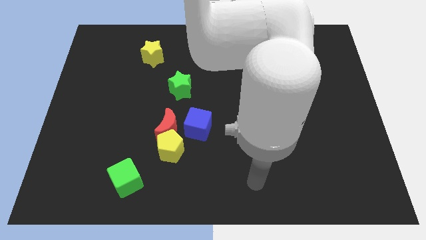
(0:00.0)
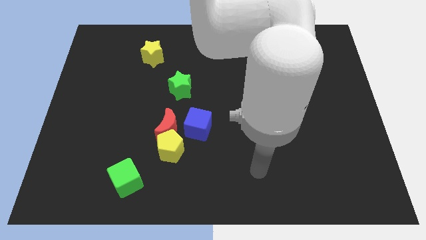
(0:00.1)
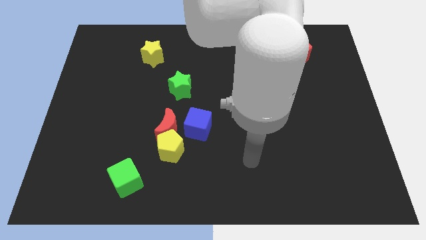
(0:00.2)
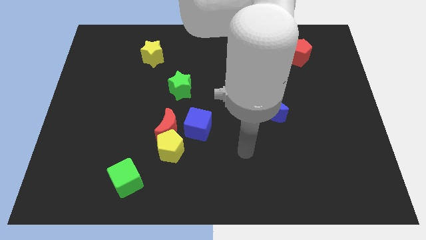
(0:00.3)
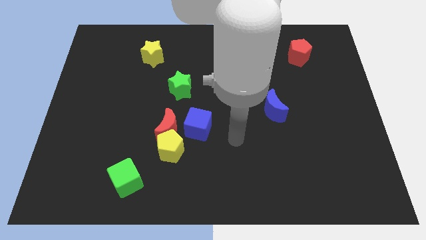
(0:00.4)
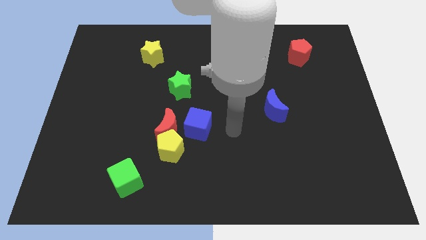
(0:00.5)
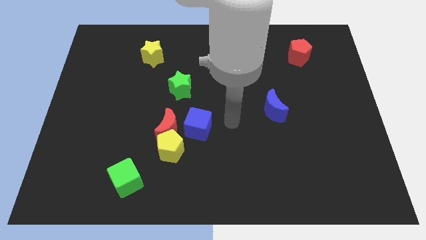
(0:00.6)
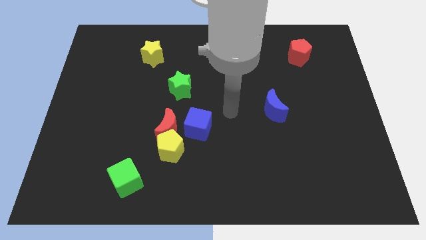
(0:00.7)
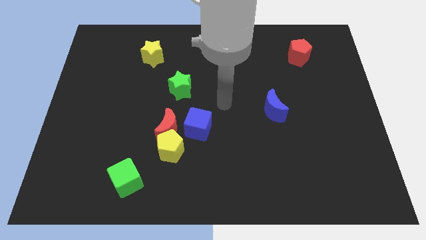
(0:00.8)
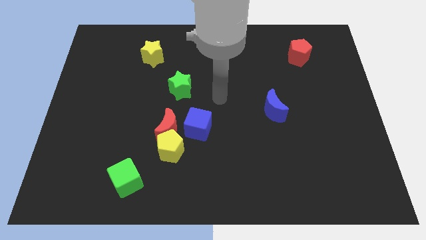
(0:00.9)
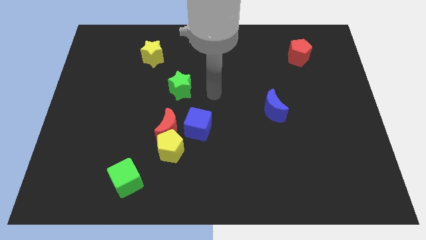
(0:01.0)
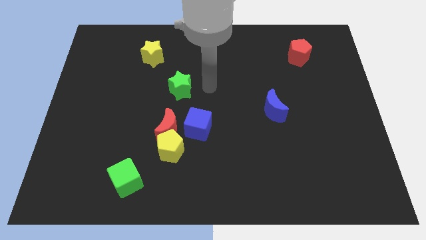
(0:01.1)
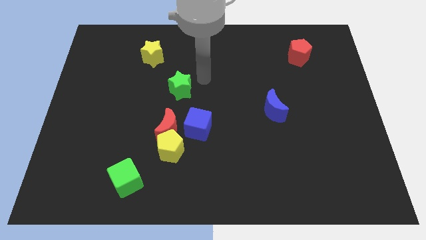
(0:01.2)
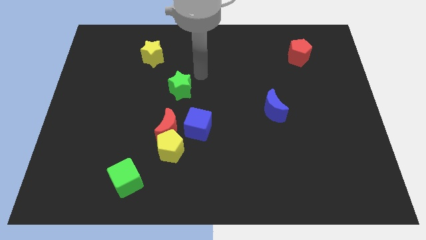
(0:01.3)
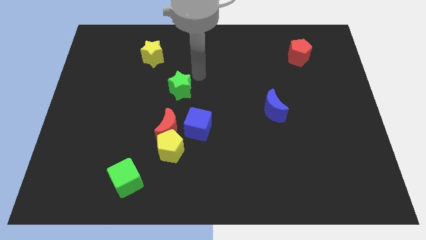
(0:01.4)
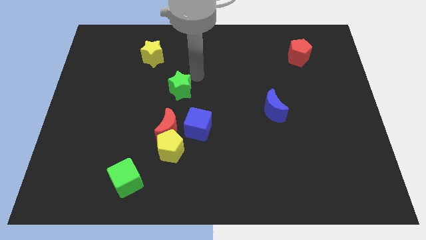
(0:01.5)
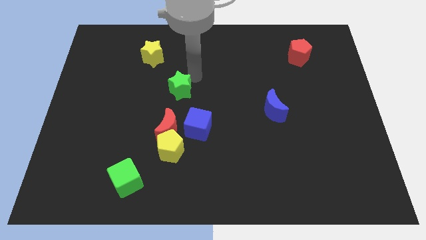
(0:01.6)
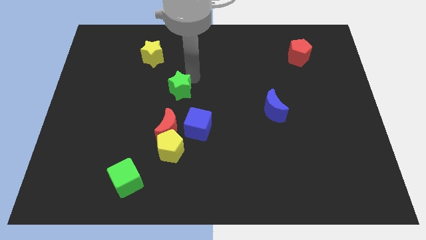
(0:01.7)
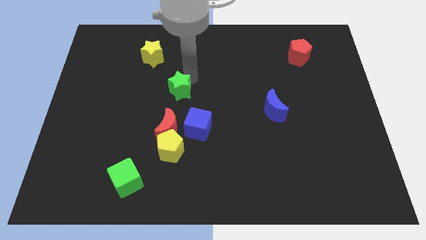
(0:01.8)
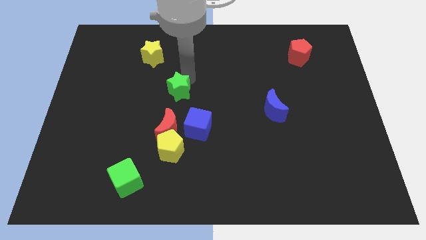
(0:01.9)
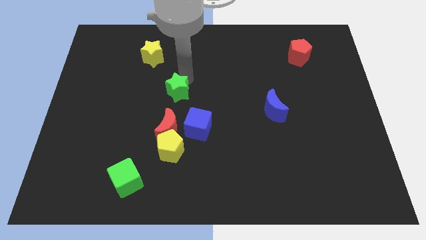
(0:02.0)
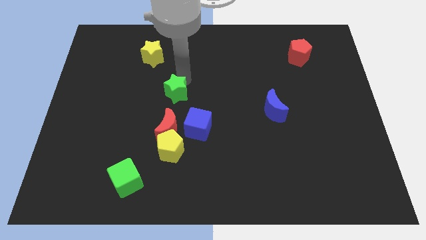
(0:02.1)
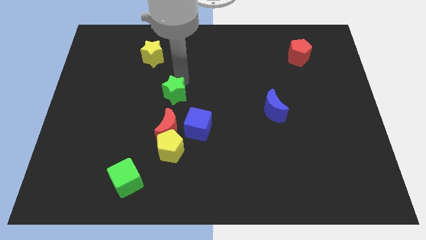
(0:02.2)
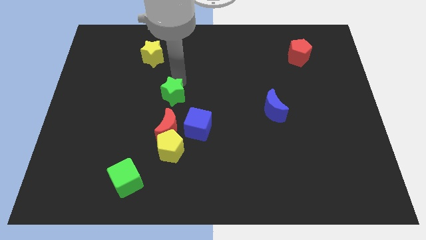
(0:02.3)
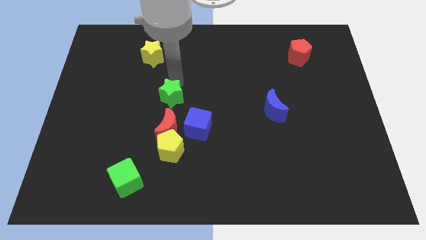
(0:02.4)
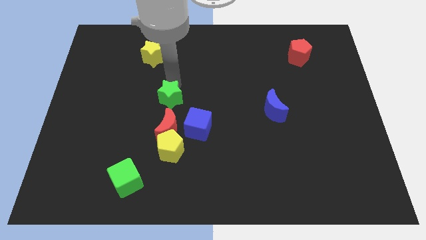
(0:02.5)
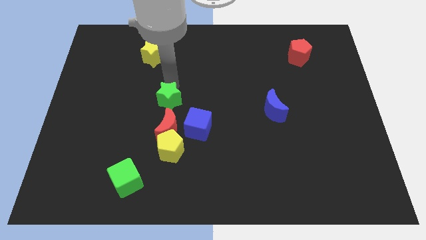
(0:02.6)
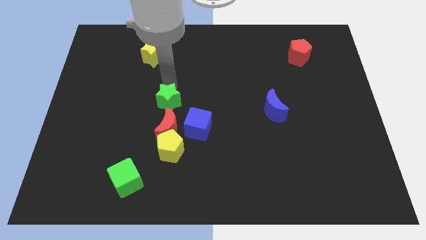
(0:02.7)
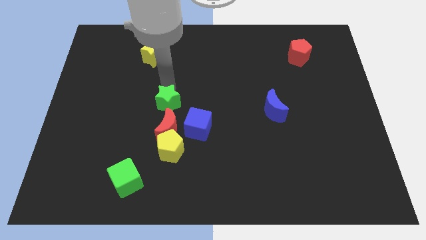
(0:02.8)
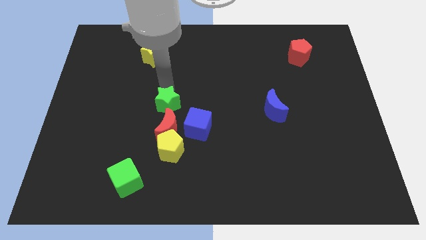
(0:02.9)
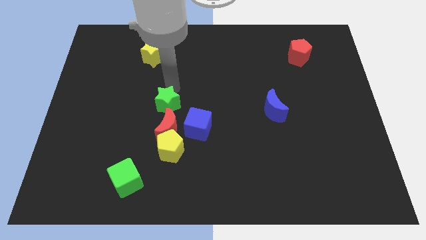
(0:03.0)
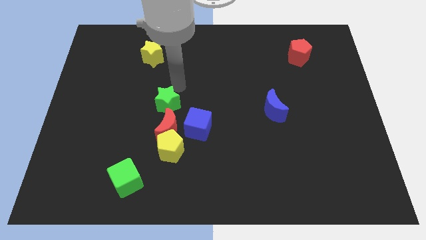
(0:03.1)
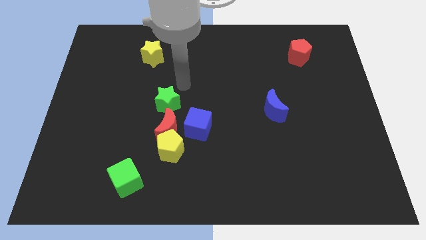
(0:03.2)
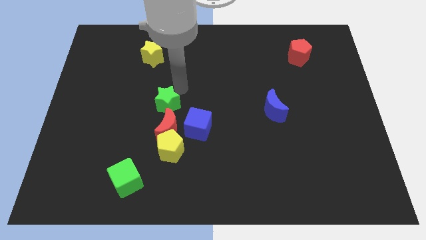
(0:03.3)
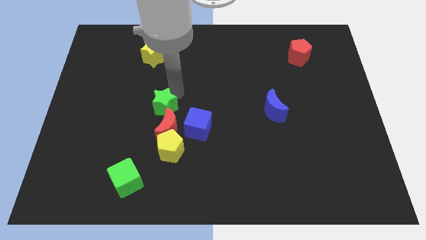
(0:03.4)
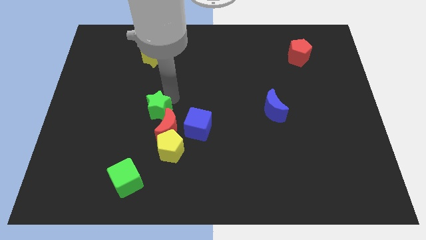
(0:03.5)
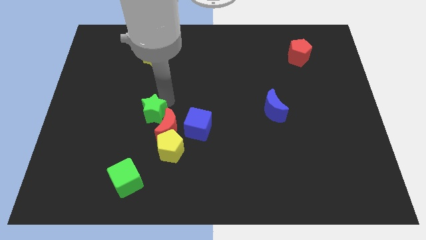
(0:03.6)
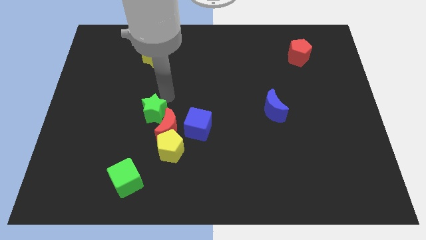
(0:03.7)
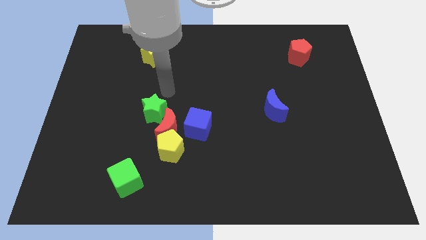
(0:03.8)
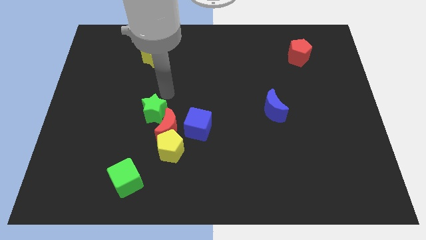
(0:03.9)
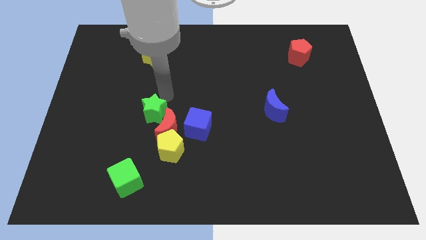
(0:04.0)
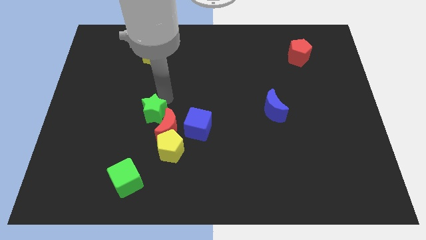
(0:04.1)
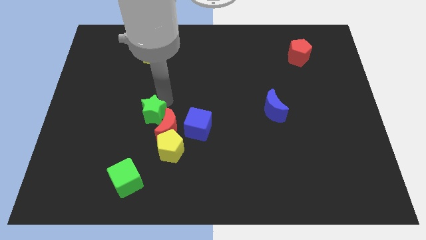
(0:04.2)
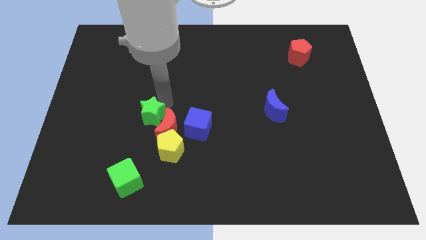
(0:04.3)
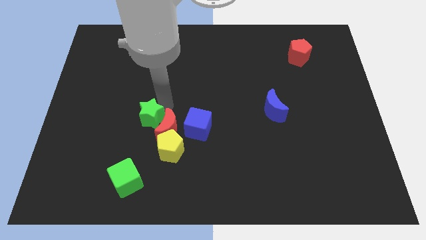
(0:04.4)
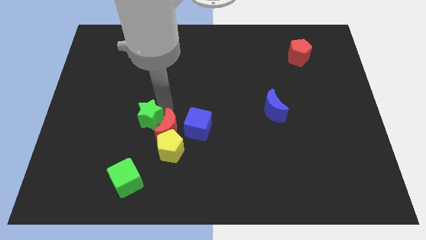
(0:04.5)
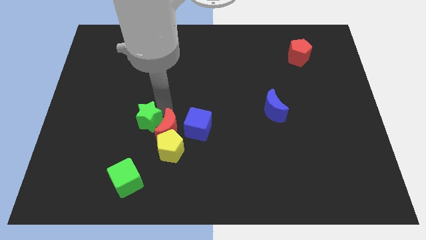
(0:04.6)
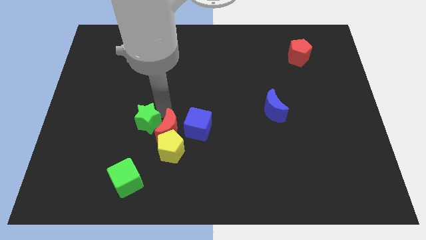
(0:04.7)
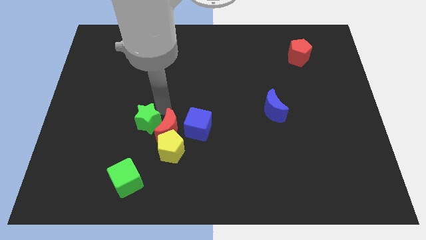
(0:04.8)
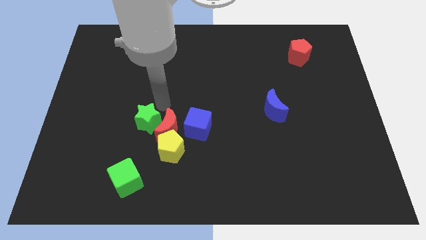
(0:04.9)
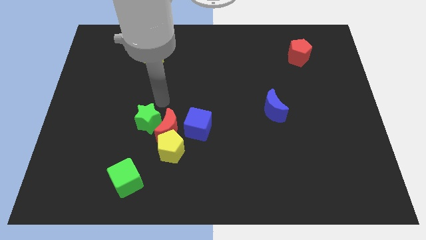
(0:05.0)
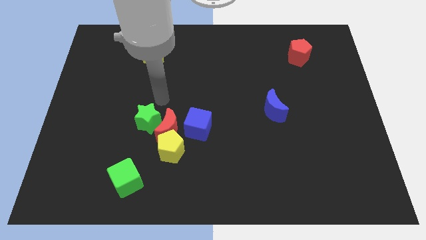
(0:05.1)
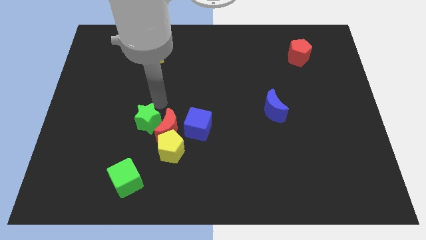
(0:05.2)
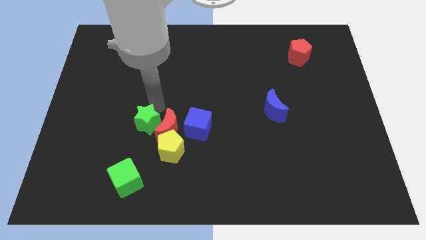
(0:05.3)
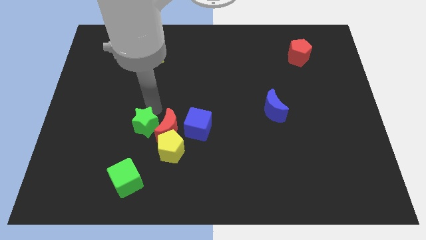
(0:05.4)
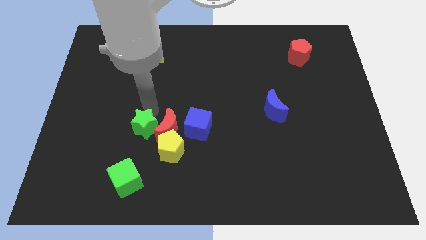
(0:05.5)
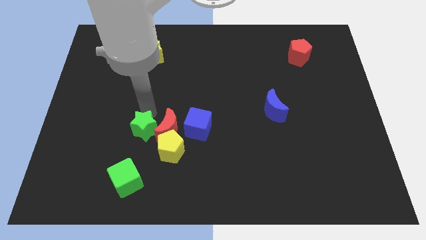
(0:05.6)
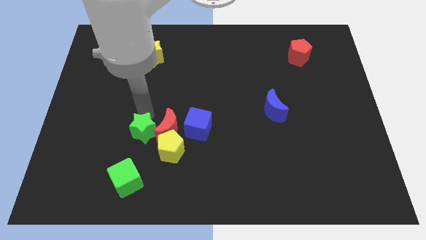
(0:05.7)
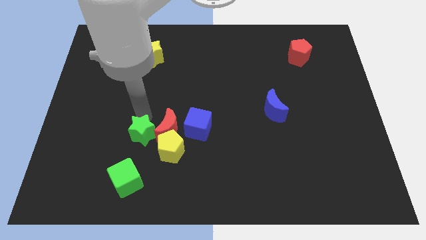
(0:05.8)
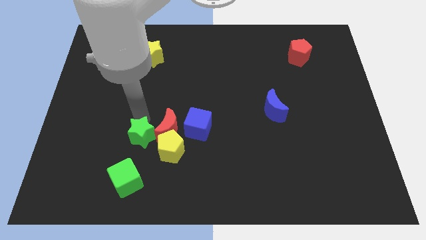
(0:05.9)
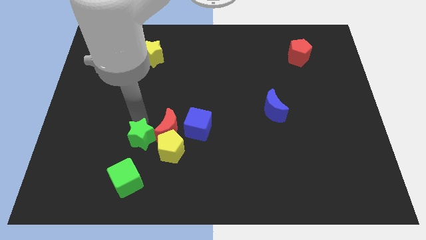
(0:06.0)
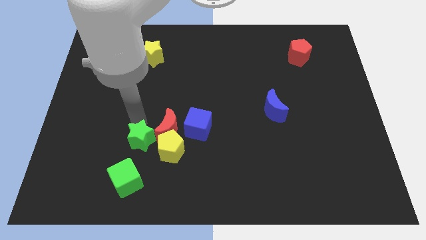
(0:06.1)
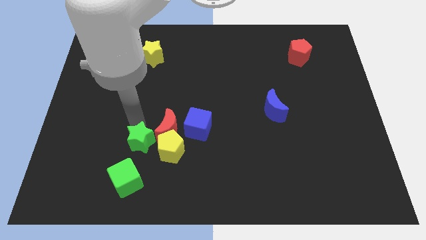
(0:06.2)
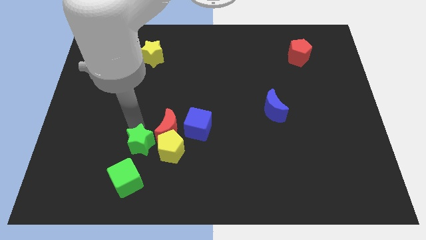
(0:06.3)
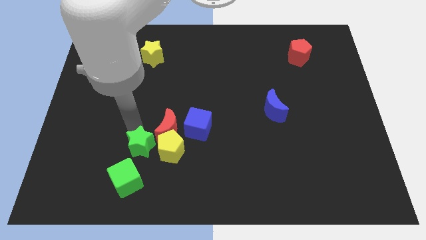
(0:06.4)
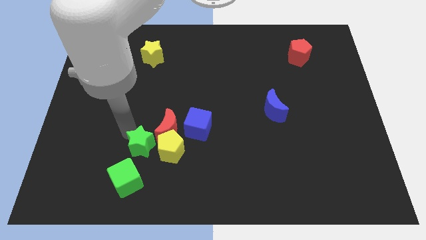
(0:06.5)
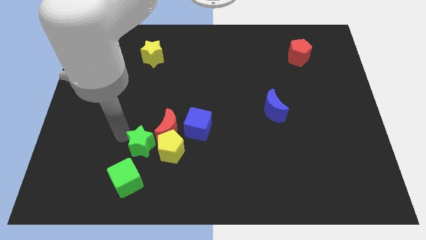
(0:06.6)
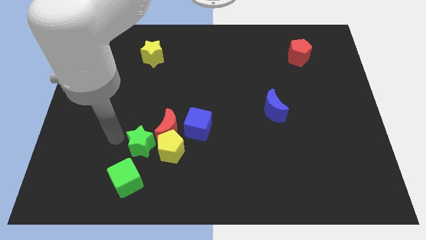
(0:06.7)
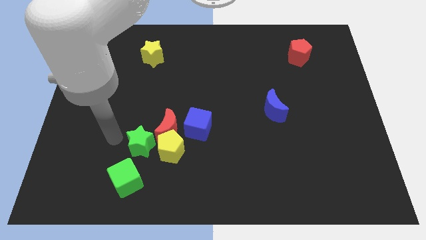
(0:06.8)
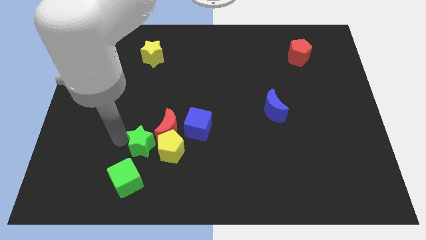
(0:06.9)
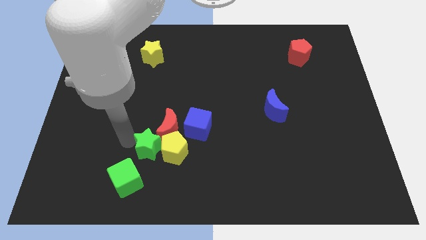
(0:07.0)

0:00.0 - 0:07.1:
move the green star to the yellow pentagon
